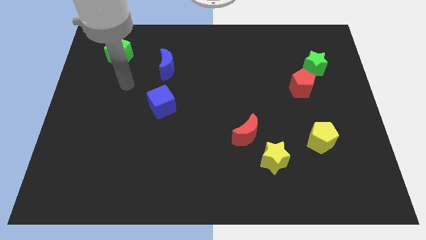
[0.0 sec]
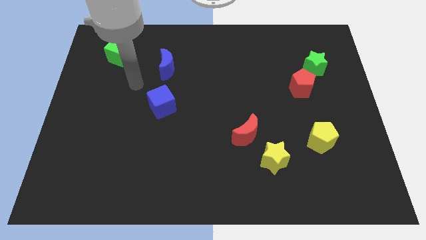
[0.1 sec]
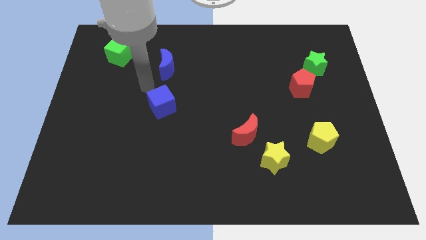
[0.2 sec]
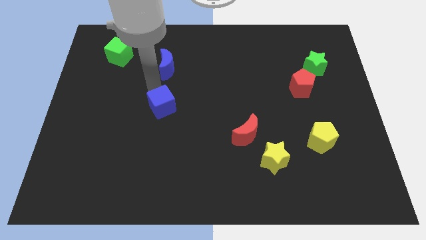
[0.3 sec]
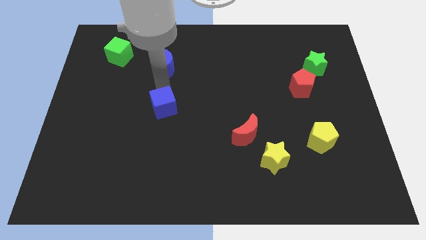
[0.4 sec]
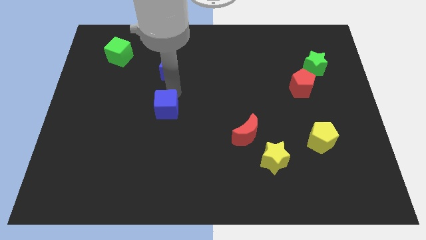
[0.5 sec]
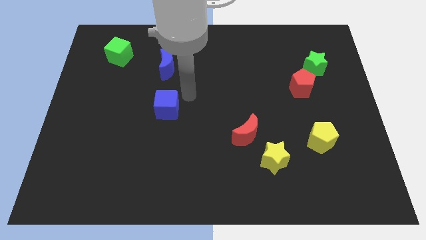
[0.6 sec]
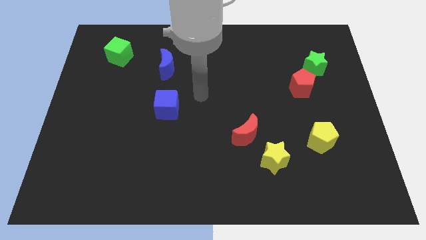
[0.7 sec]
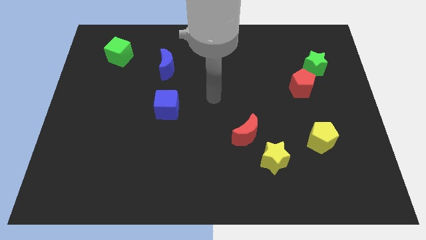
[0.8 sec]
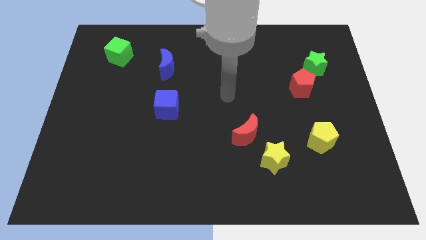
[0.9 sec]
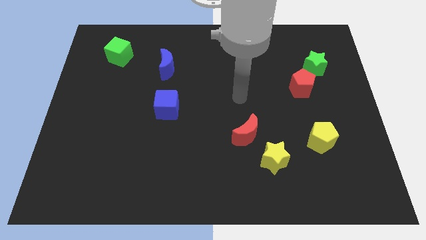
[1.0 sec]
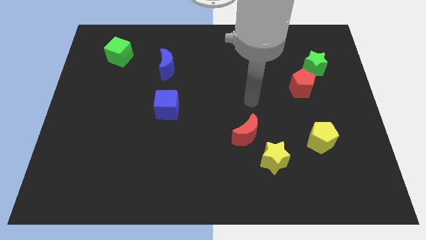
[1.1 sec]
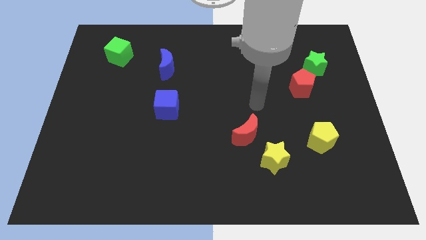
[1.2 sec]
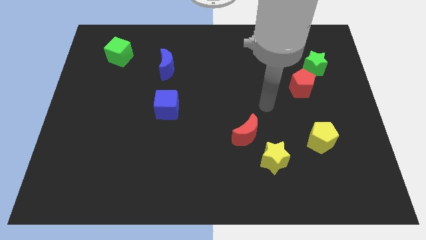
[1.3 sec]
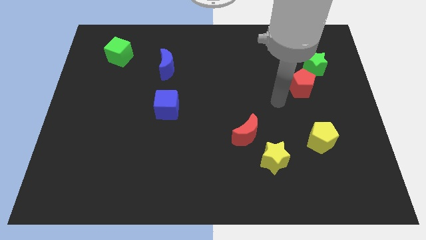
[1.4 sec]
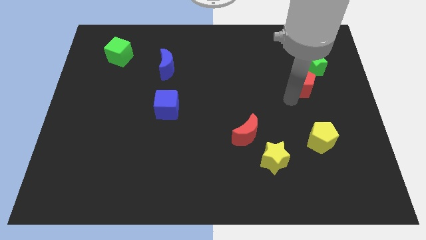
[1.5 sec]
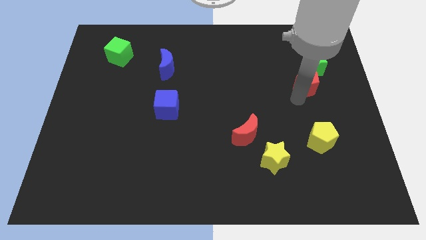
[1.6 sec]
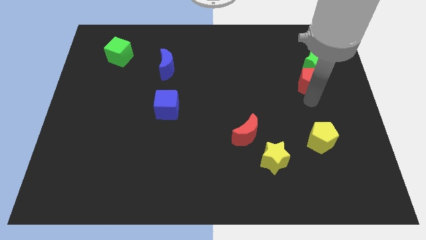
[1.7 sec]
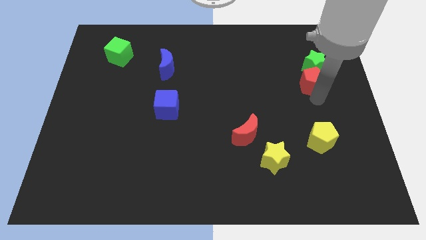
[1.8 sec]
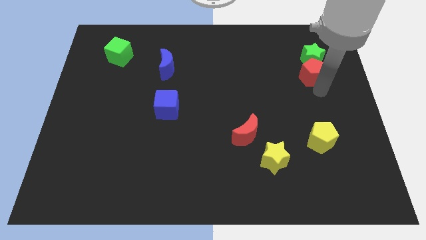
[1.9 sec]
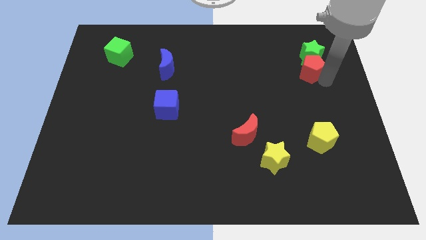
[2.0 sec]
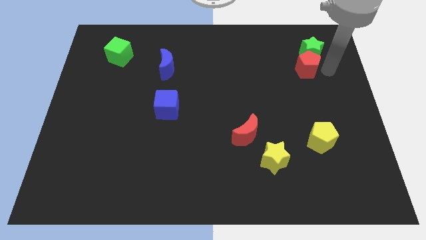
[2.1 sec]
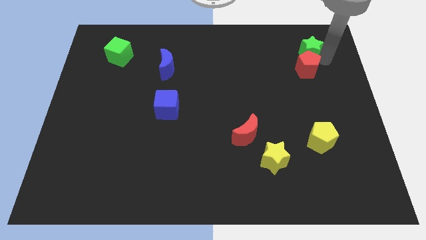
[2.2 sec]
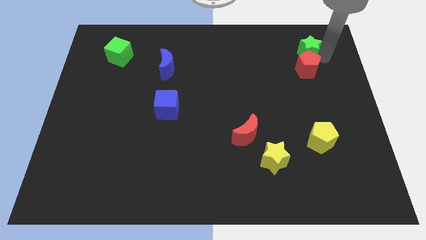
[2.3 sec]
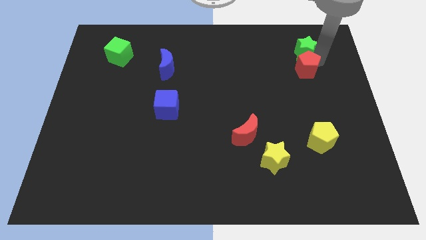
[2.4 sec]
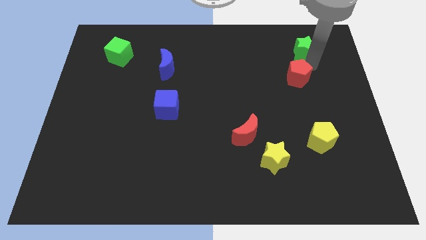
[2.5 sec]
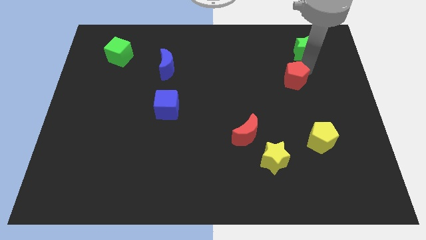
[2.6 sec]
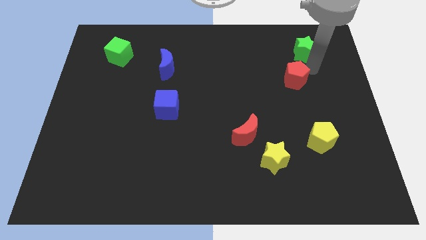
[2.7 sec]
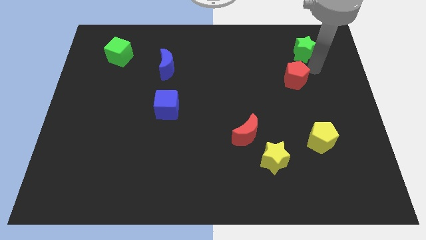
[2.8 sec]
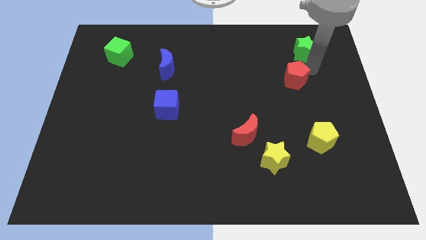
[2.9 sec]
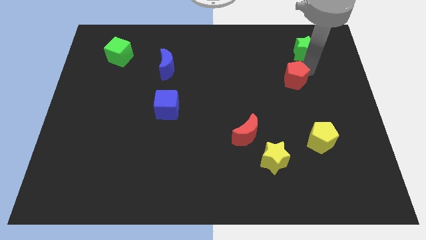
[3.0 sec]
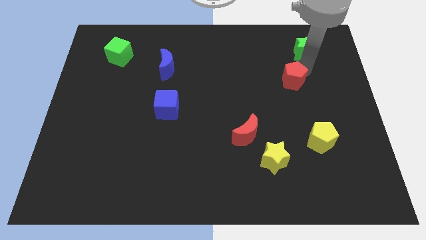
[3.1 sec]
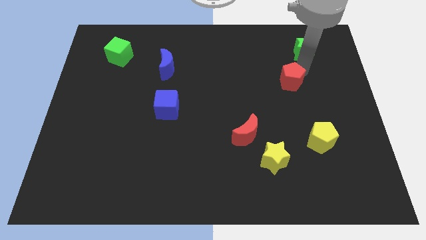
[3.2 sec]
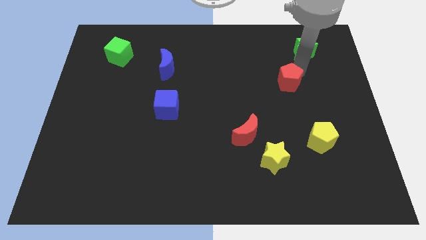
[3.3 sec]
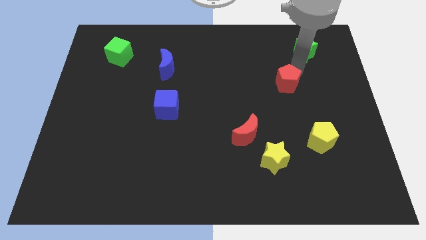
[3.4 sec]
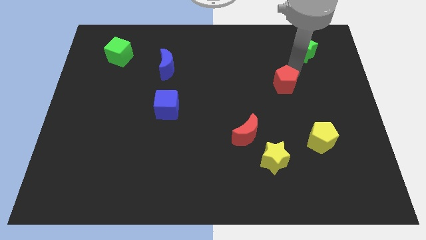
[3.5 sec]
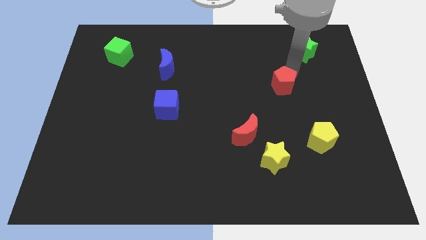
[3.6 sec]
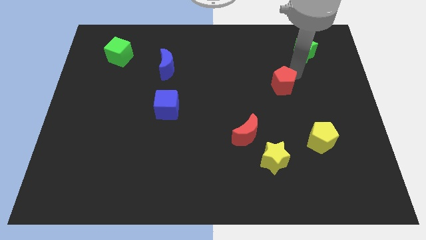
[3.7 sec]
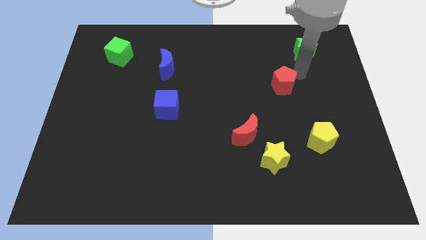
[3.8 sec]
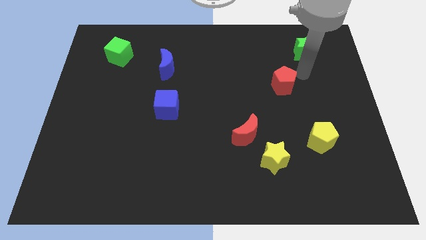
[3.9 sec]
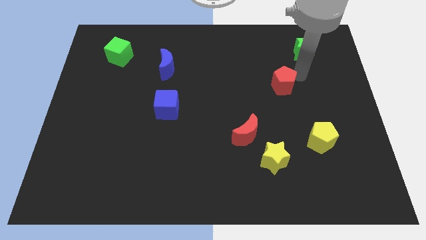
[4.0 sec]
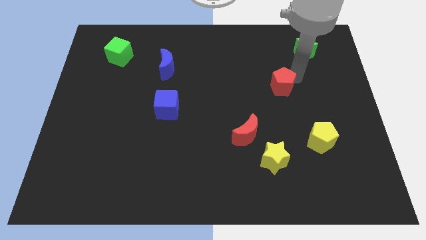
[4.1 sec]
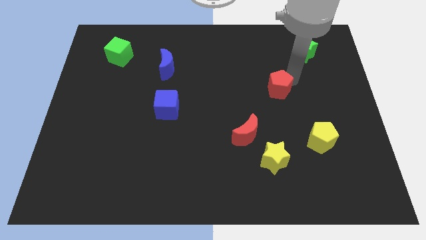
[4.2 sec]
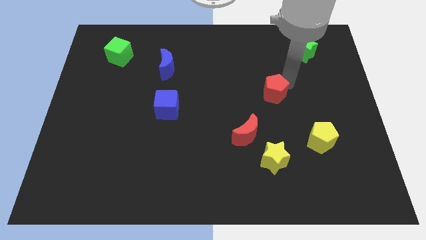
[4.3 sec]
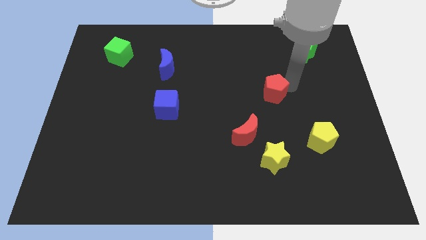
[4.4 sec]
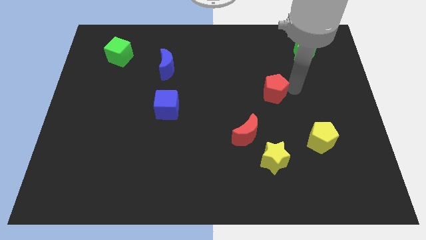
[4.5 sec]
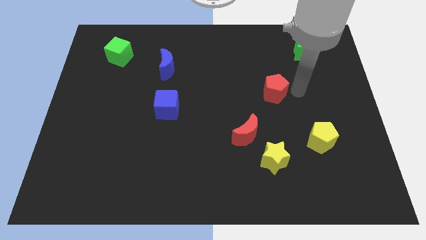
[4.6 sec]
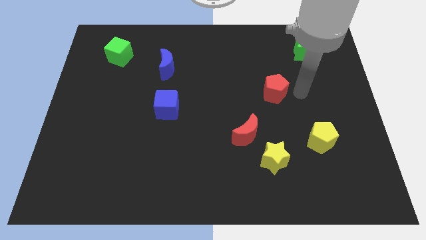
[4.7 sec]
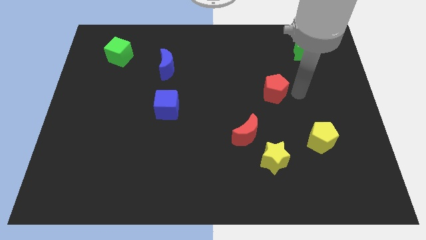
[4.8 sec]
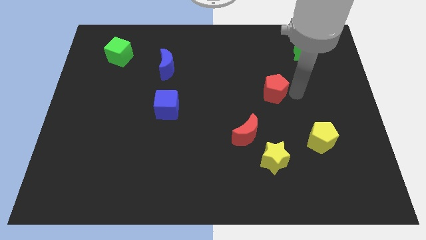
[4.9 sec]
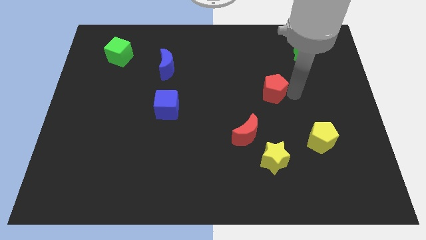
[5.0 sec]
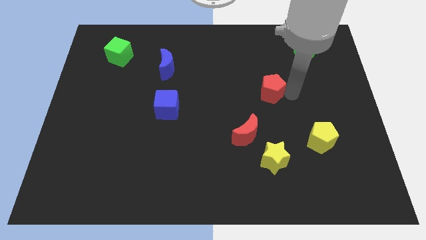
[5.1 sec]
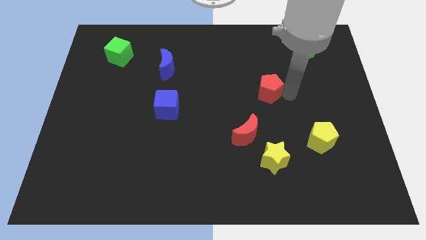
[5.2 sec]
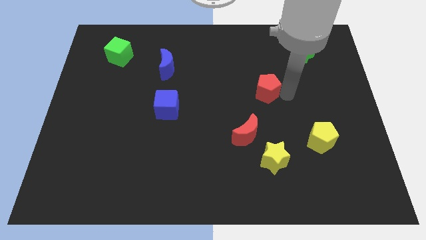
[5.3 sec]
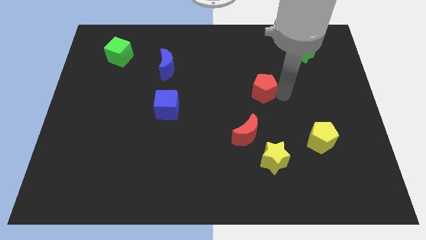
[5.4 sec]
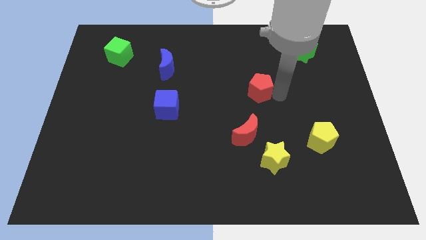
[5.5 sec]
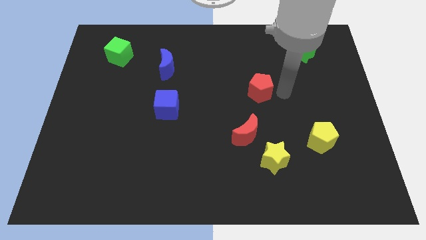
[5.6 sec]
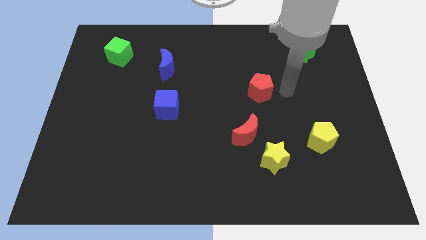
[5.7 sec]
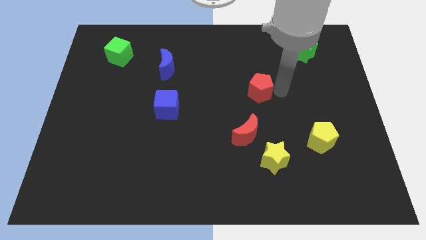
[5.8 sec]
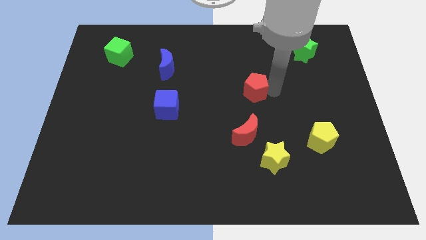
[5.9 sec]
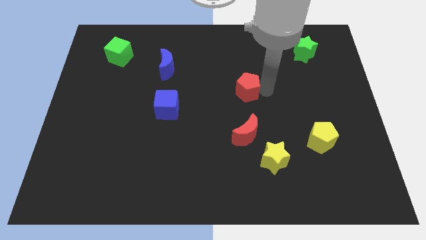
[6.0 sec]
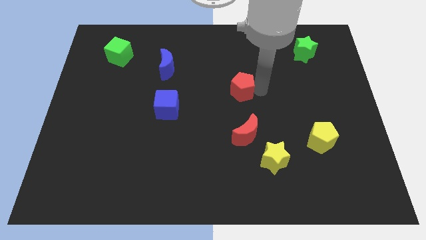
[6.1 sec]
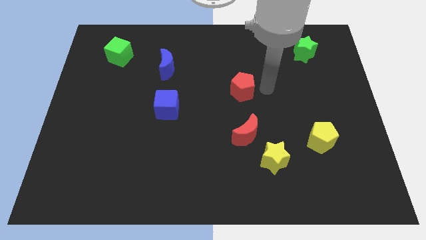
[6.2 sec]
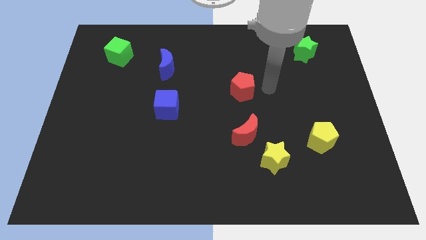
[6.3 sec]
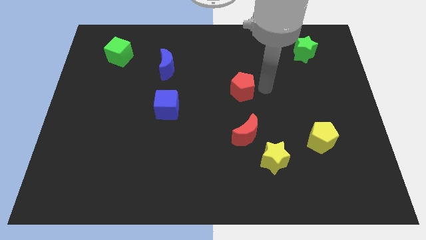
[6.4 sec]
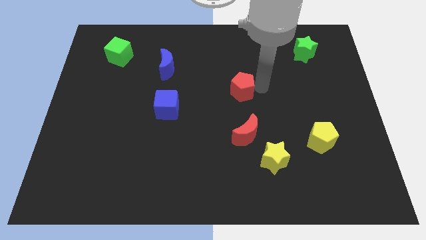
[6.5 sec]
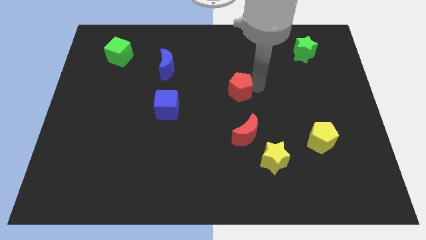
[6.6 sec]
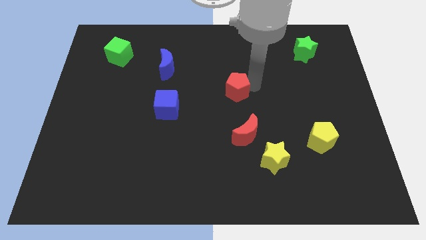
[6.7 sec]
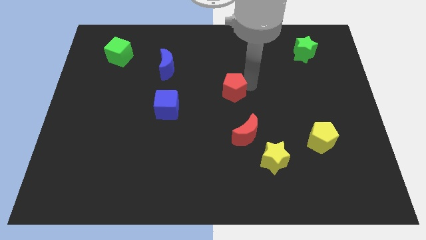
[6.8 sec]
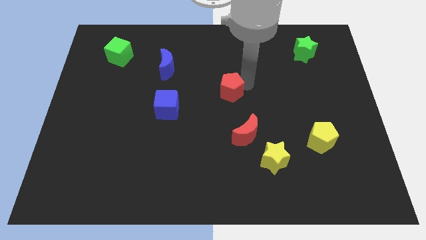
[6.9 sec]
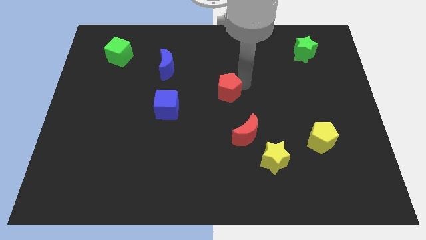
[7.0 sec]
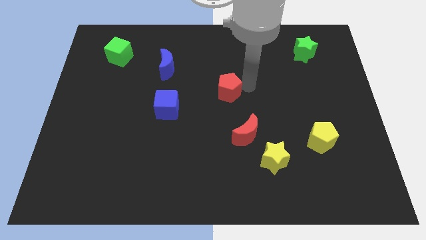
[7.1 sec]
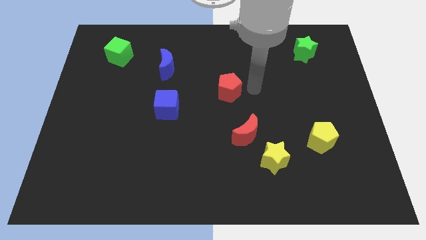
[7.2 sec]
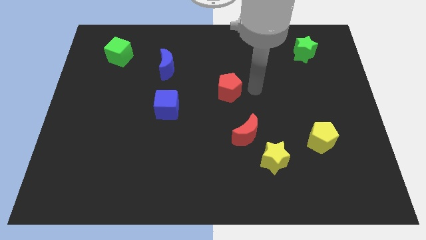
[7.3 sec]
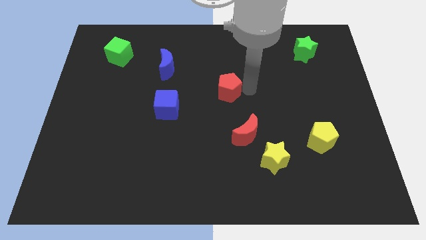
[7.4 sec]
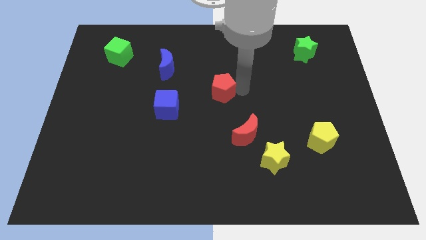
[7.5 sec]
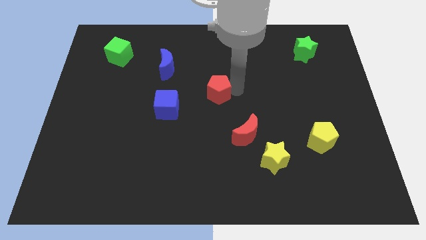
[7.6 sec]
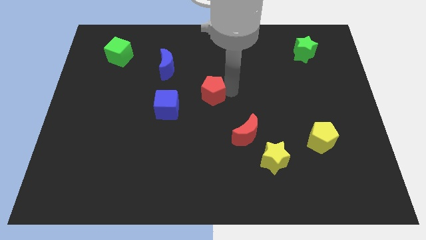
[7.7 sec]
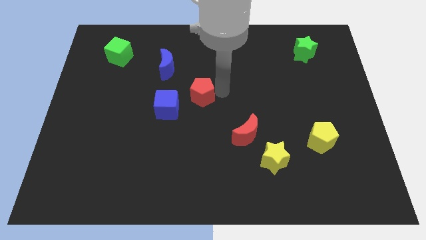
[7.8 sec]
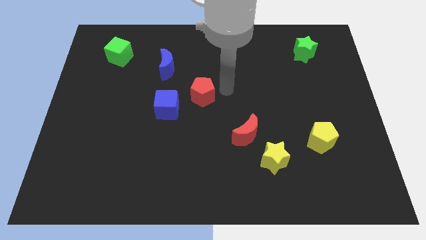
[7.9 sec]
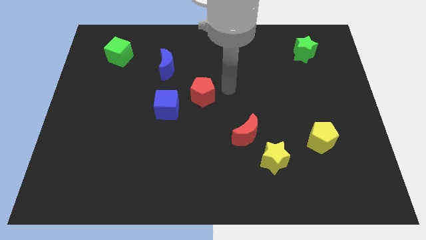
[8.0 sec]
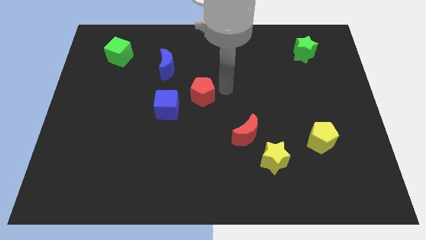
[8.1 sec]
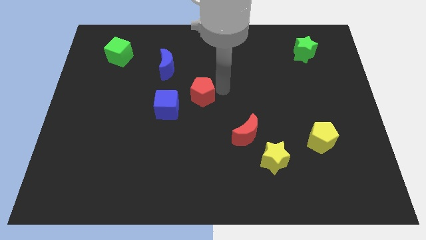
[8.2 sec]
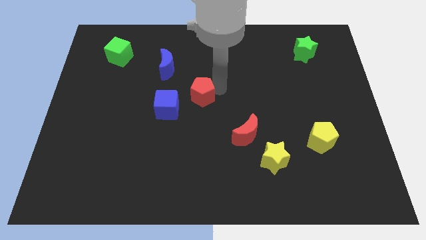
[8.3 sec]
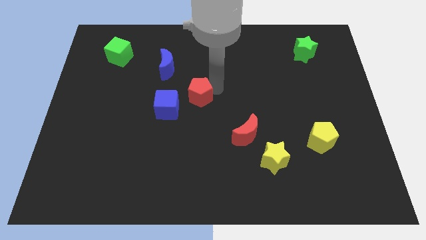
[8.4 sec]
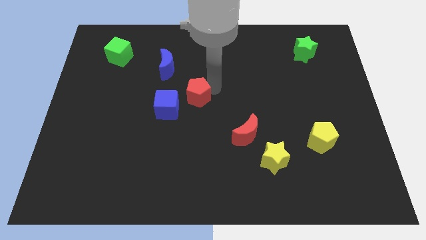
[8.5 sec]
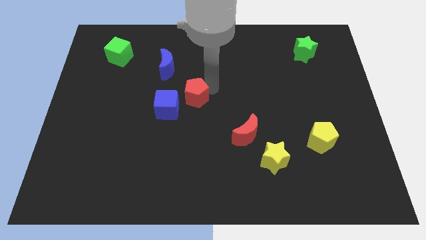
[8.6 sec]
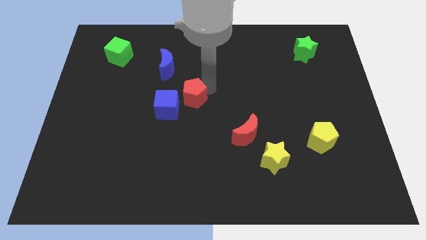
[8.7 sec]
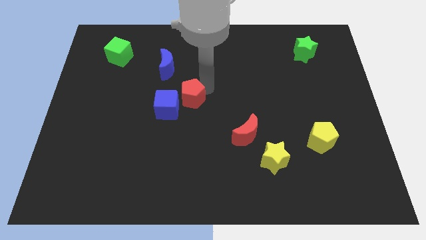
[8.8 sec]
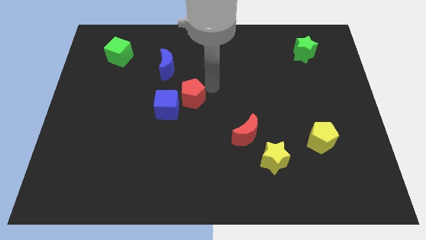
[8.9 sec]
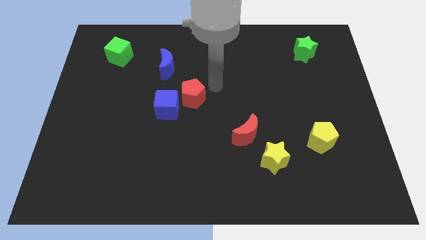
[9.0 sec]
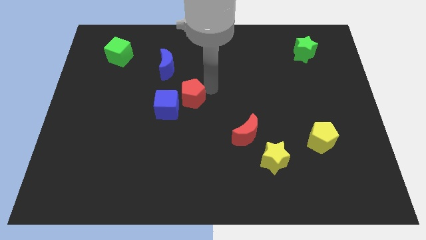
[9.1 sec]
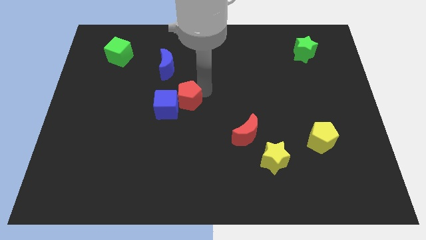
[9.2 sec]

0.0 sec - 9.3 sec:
put the red pentagon to the blue cube
